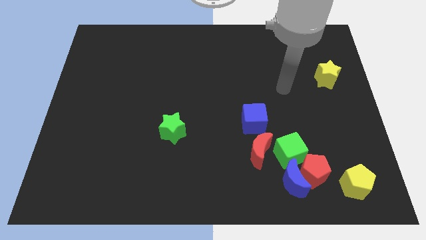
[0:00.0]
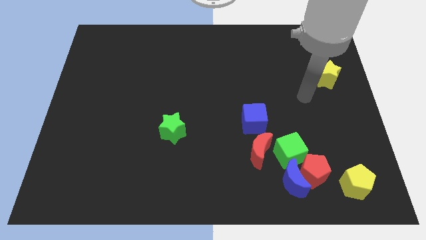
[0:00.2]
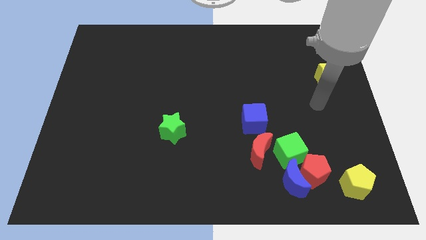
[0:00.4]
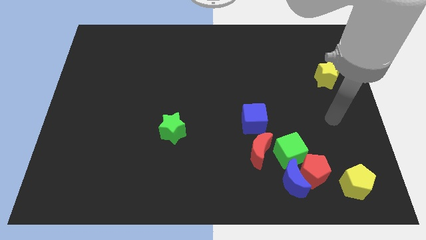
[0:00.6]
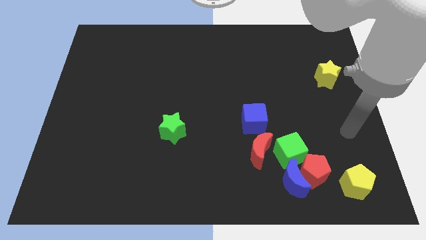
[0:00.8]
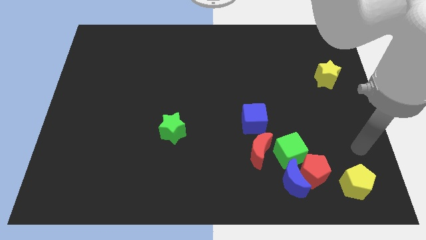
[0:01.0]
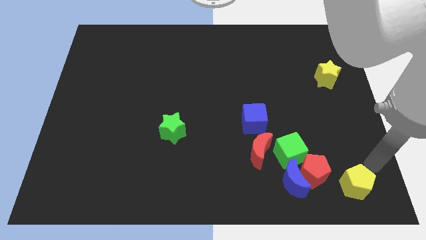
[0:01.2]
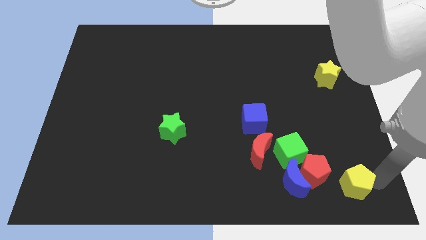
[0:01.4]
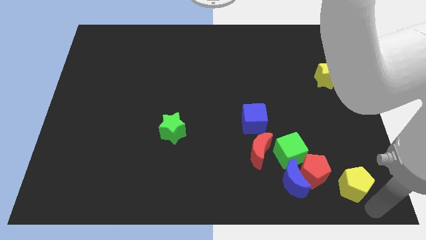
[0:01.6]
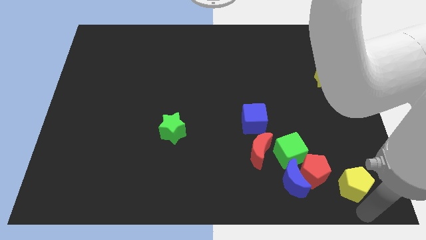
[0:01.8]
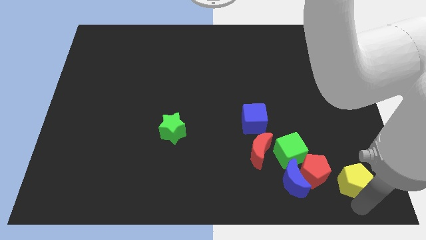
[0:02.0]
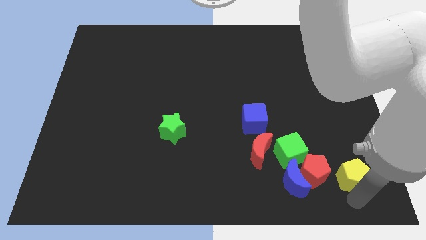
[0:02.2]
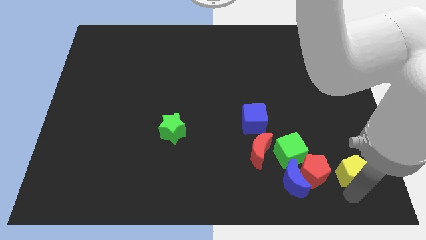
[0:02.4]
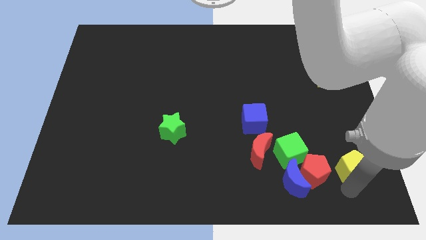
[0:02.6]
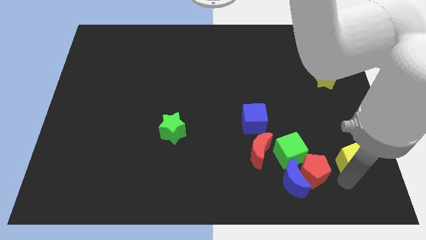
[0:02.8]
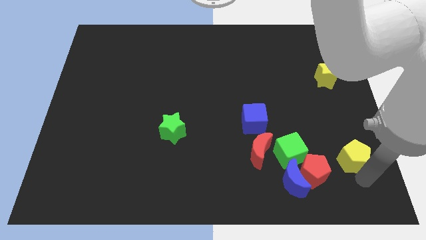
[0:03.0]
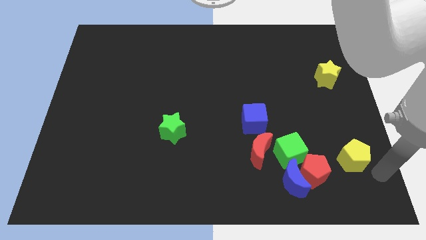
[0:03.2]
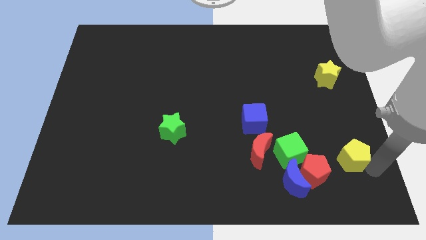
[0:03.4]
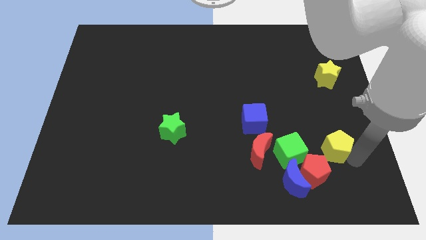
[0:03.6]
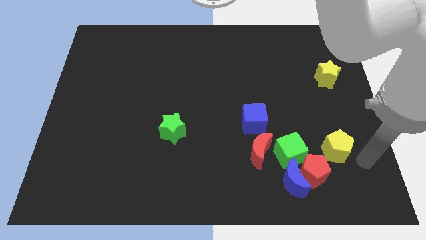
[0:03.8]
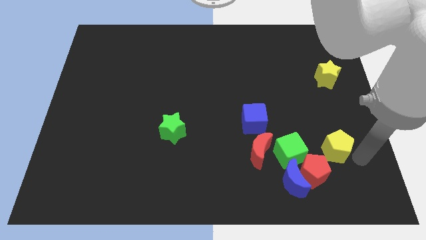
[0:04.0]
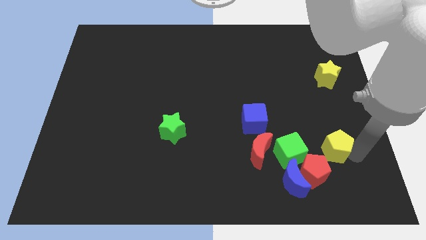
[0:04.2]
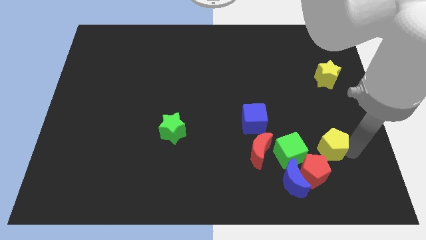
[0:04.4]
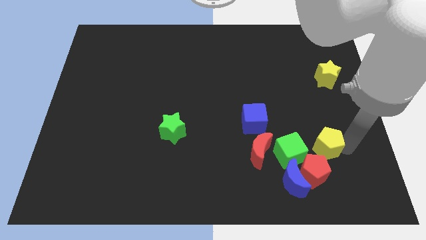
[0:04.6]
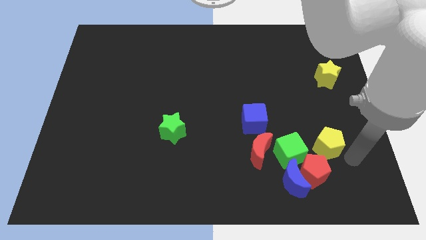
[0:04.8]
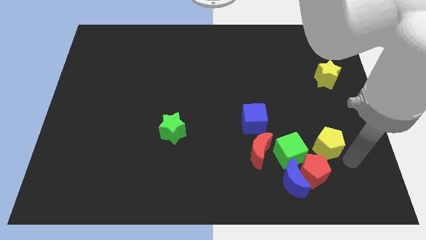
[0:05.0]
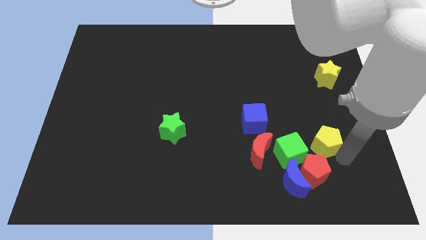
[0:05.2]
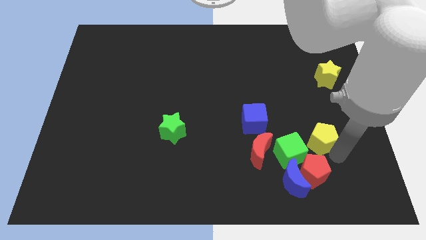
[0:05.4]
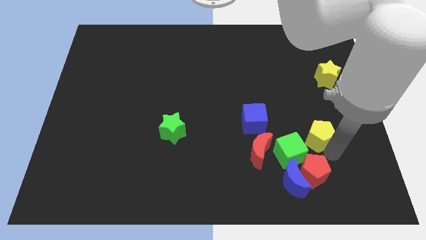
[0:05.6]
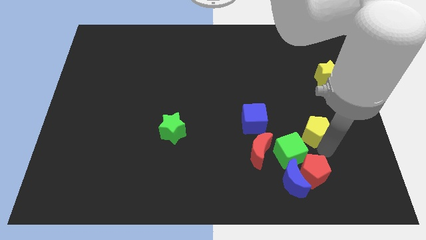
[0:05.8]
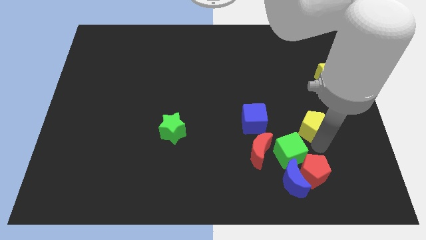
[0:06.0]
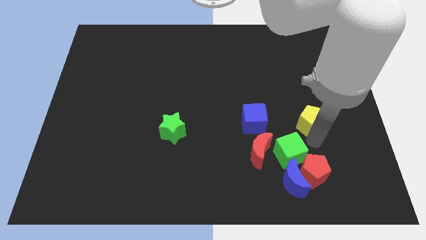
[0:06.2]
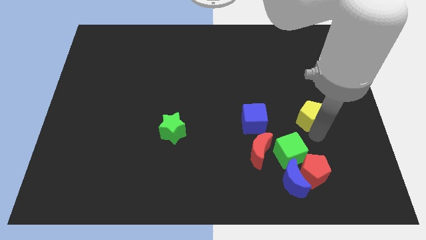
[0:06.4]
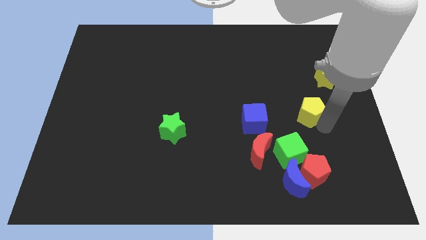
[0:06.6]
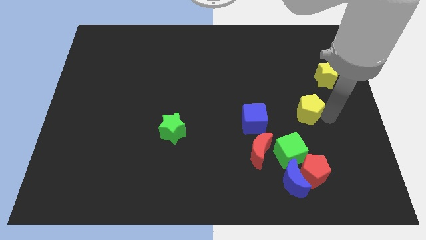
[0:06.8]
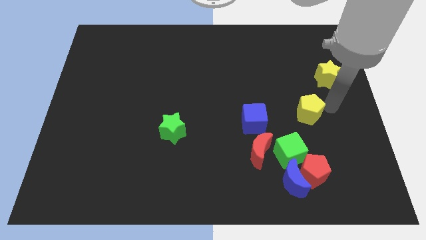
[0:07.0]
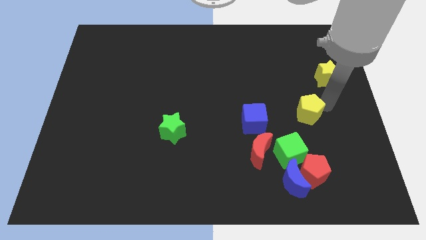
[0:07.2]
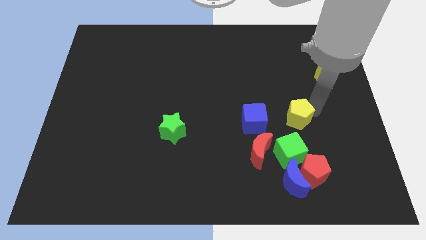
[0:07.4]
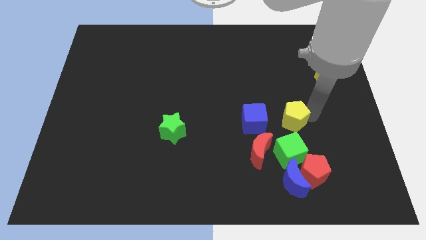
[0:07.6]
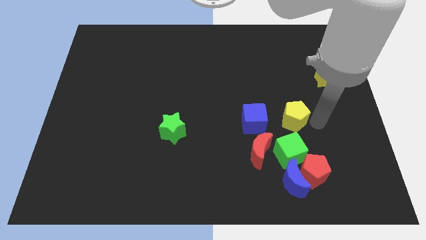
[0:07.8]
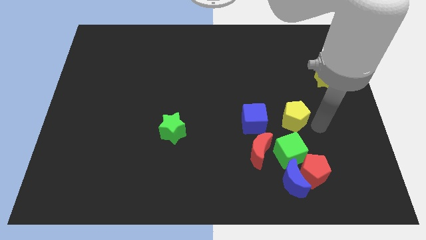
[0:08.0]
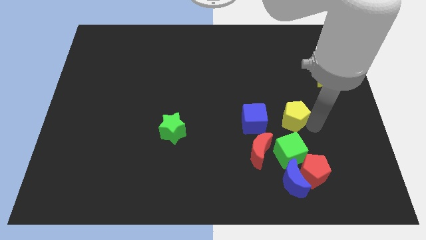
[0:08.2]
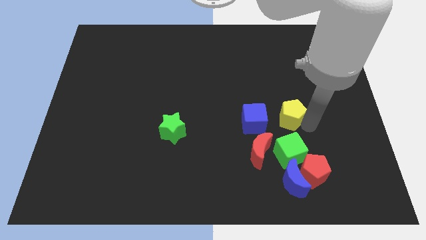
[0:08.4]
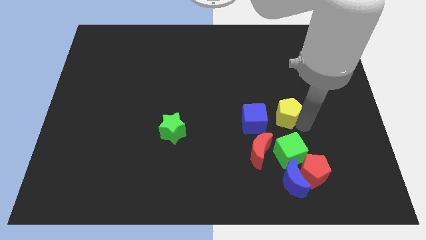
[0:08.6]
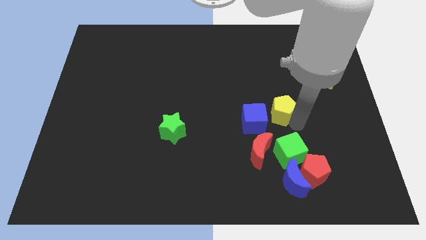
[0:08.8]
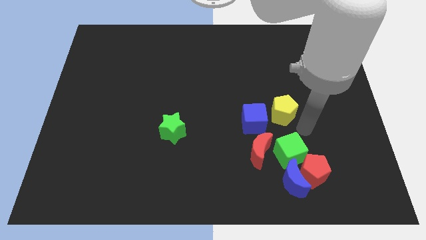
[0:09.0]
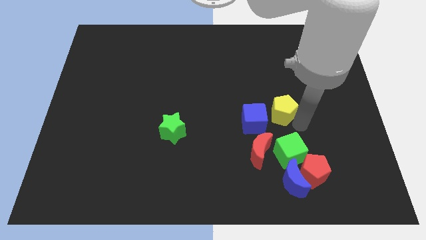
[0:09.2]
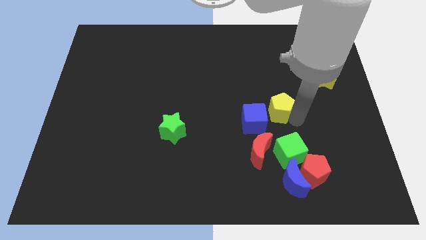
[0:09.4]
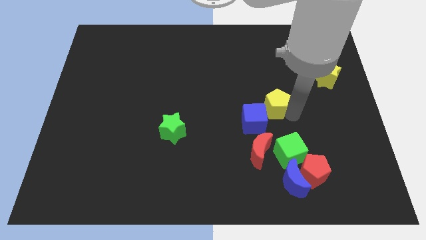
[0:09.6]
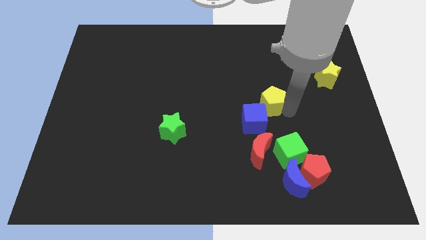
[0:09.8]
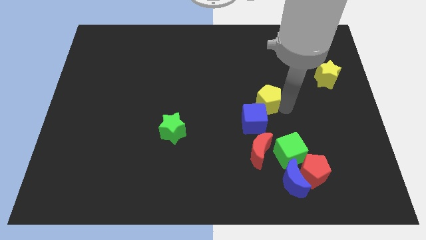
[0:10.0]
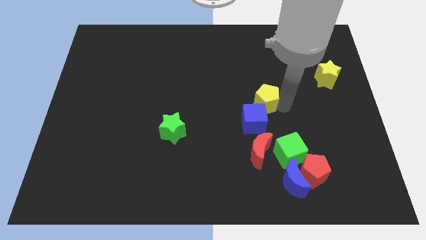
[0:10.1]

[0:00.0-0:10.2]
move the yellow pentagon to the center of the board

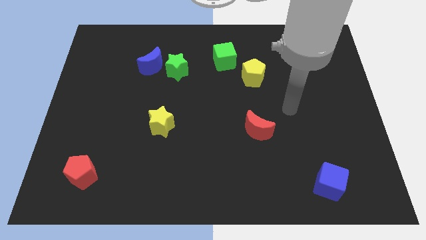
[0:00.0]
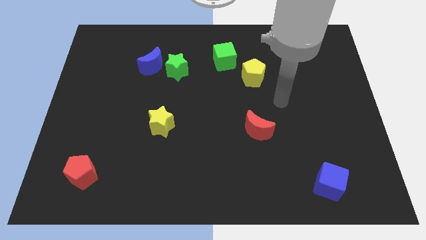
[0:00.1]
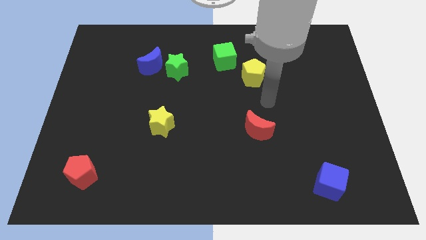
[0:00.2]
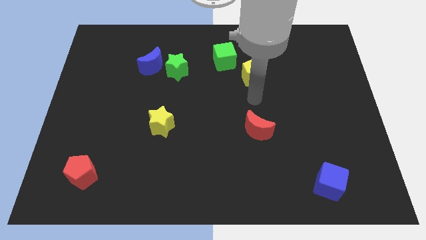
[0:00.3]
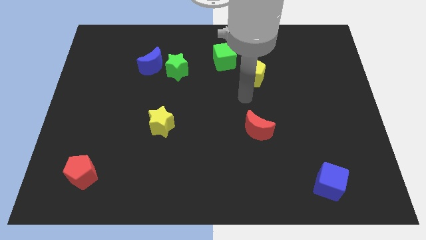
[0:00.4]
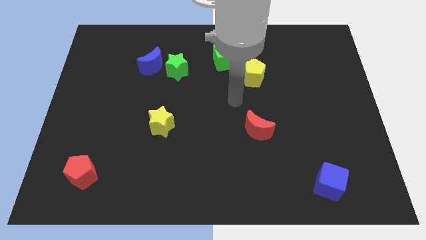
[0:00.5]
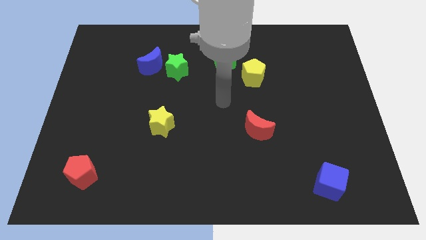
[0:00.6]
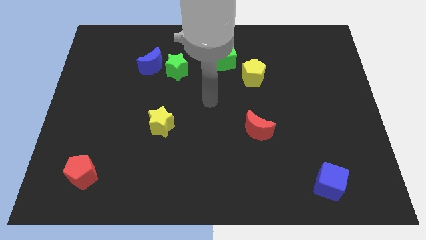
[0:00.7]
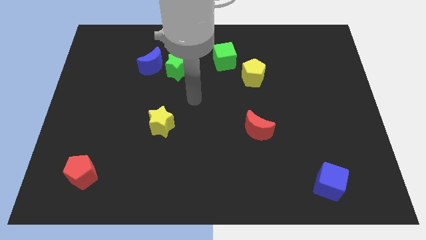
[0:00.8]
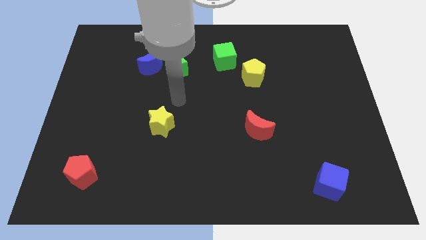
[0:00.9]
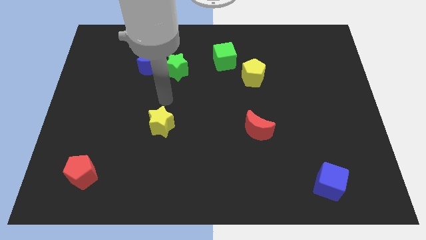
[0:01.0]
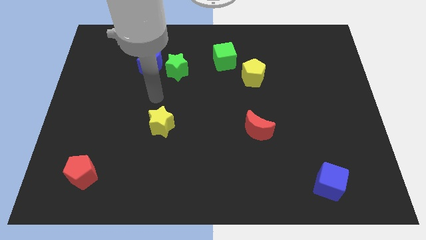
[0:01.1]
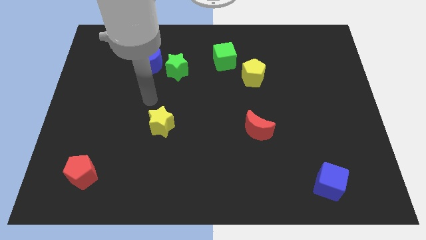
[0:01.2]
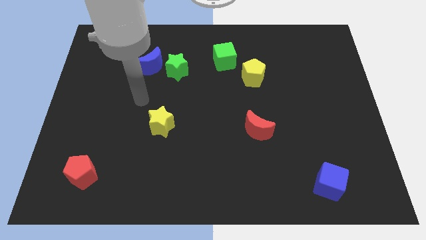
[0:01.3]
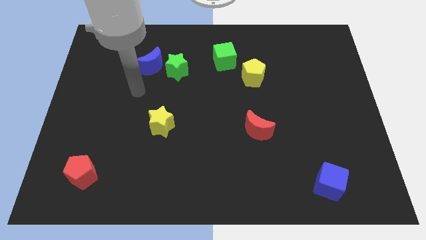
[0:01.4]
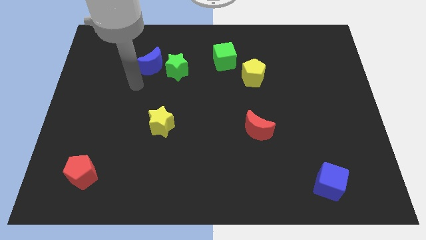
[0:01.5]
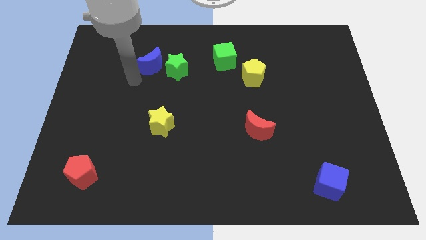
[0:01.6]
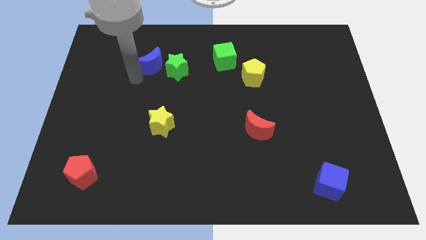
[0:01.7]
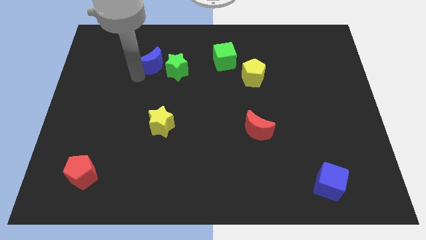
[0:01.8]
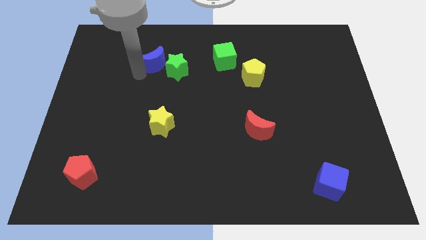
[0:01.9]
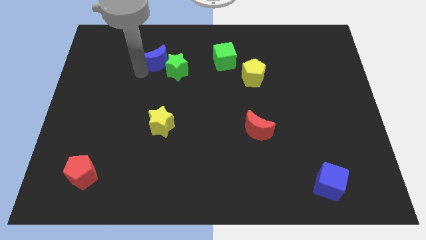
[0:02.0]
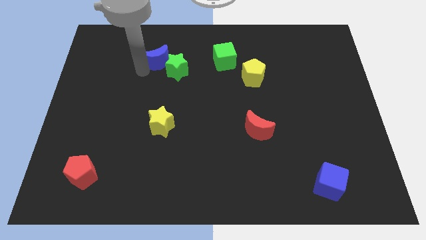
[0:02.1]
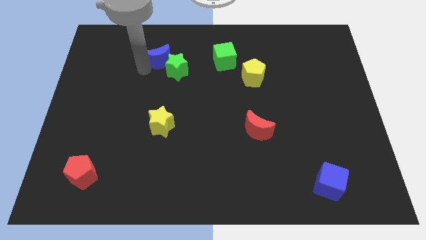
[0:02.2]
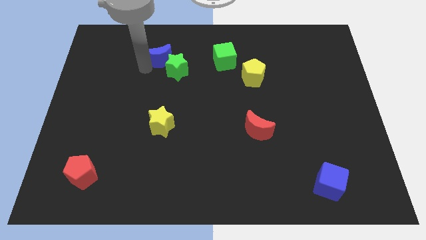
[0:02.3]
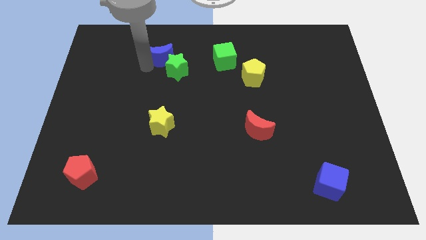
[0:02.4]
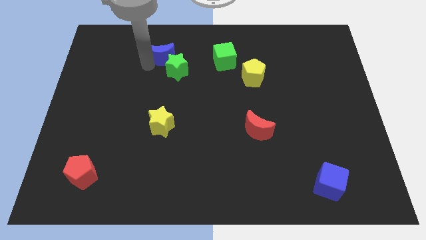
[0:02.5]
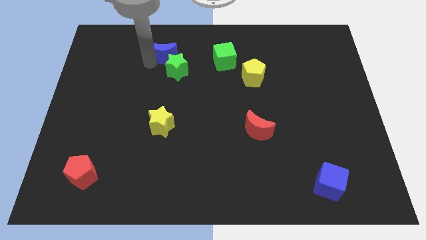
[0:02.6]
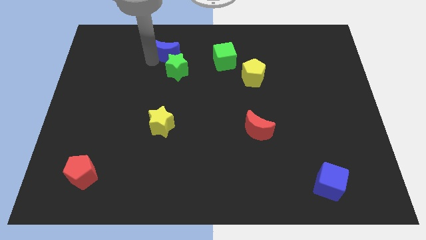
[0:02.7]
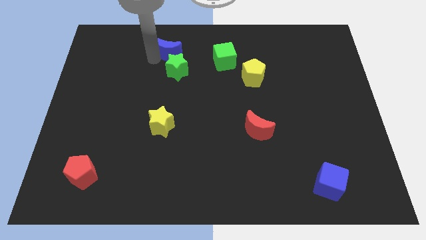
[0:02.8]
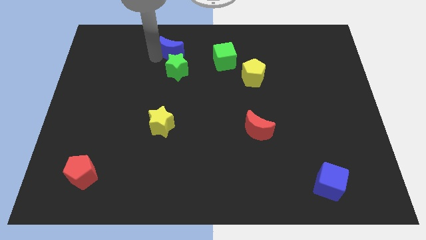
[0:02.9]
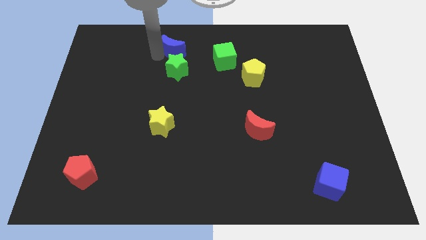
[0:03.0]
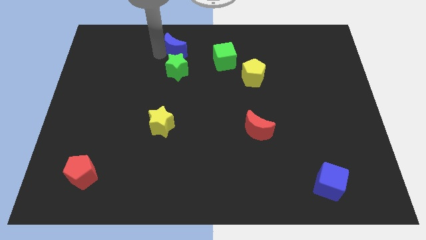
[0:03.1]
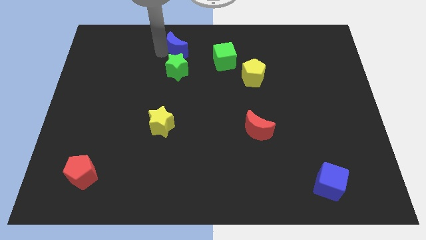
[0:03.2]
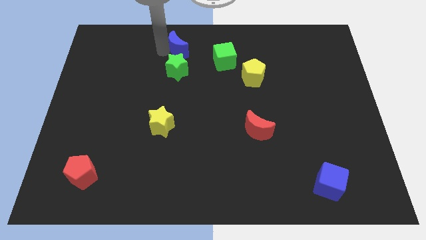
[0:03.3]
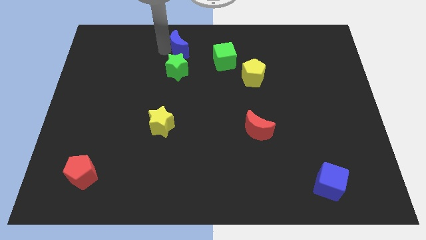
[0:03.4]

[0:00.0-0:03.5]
slide the blue moon to the towards your base
